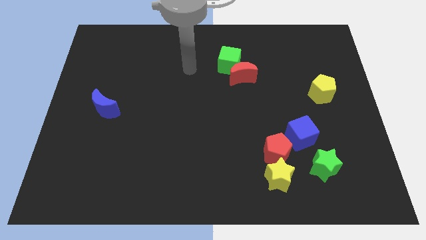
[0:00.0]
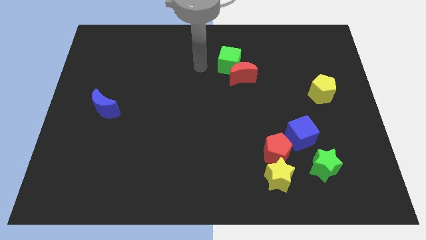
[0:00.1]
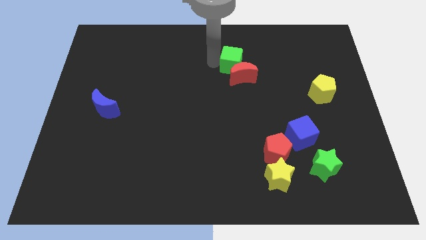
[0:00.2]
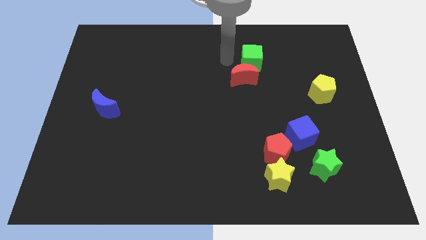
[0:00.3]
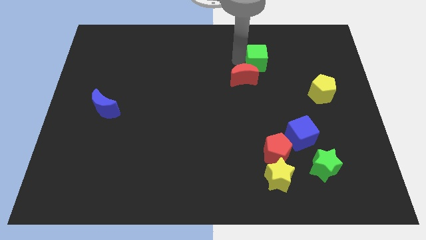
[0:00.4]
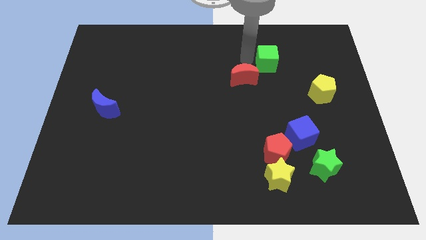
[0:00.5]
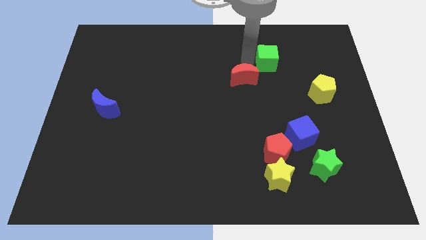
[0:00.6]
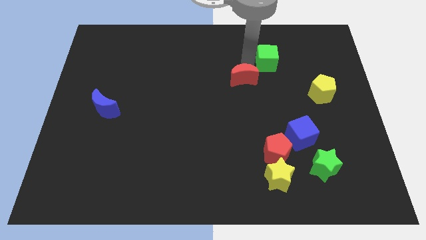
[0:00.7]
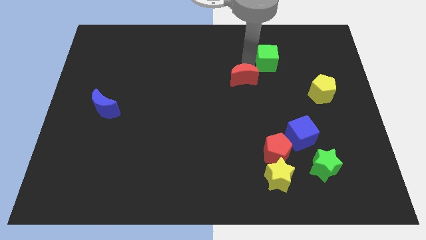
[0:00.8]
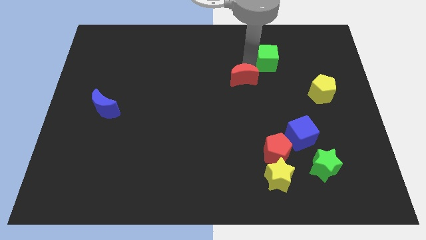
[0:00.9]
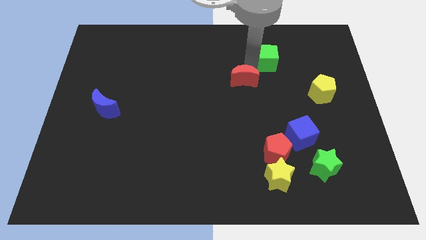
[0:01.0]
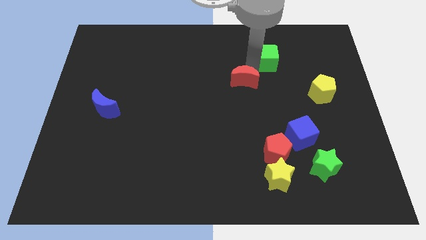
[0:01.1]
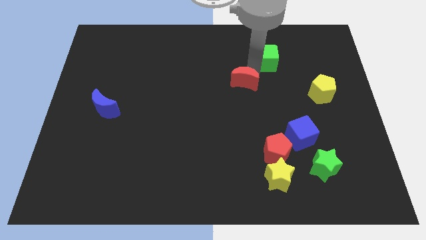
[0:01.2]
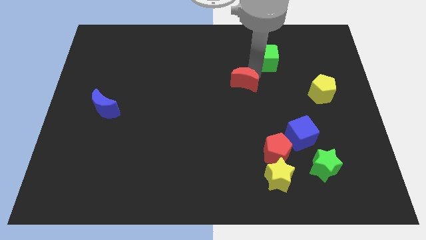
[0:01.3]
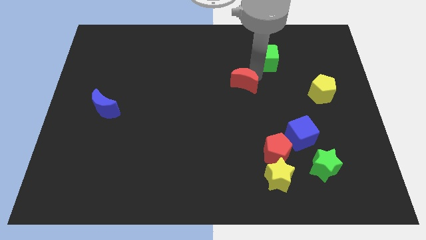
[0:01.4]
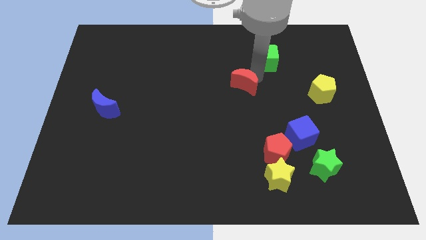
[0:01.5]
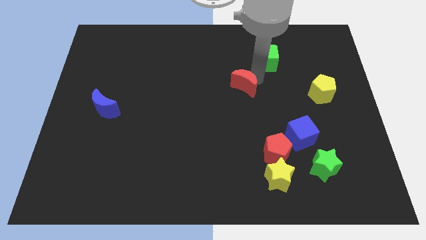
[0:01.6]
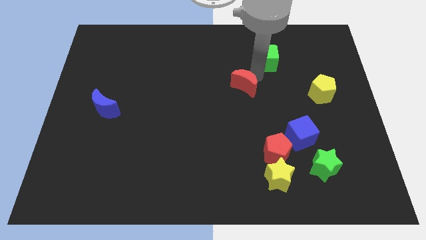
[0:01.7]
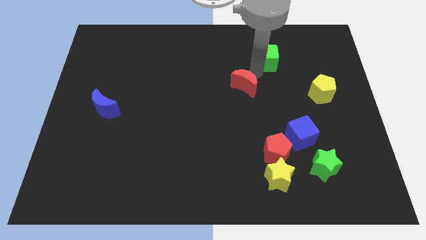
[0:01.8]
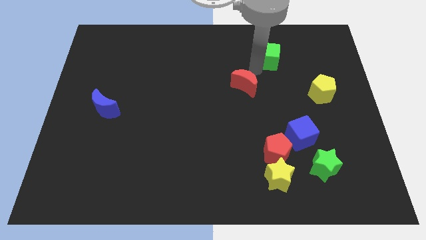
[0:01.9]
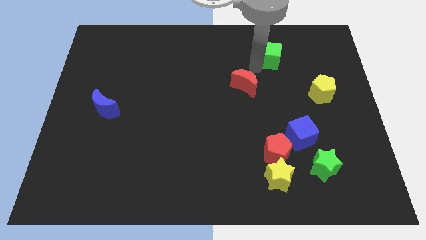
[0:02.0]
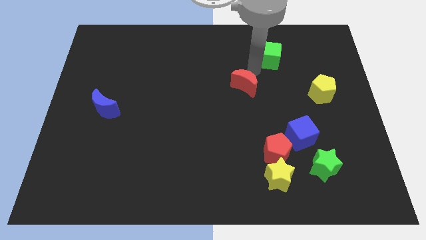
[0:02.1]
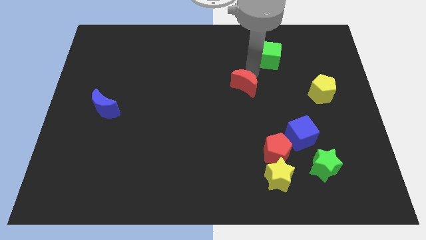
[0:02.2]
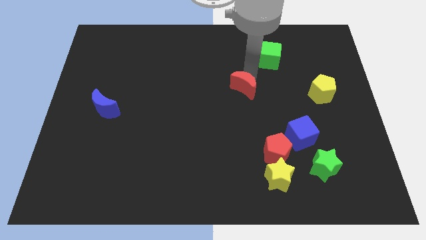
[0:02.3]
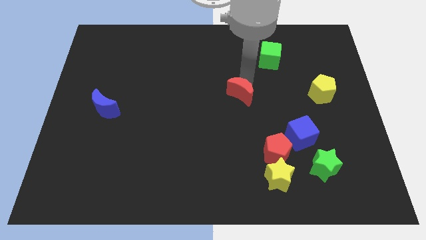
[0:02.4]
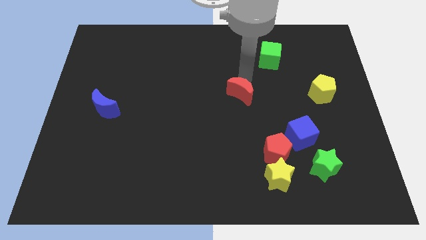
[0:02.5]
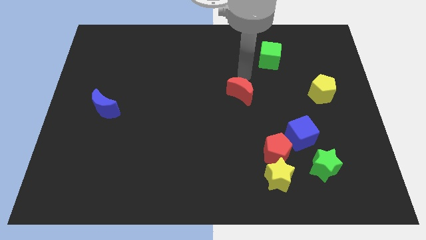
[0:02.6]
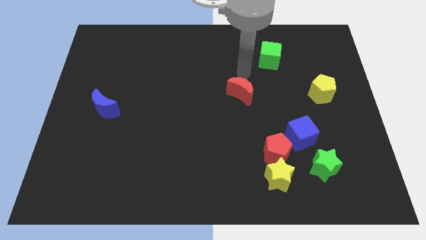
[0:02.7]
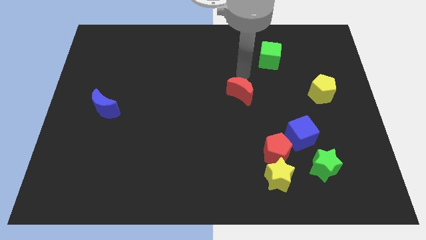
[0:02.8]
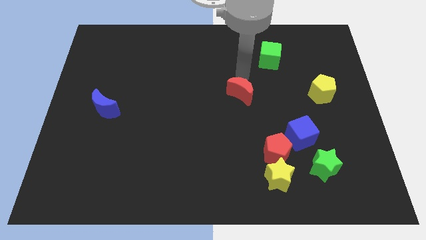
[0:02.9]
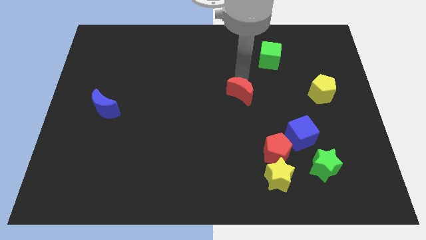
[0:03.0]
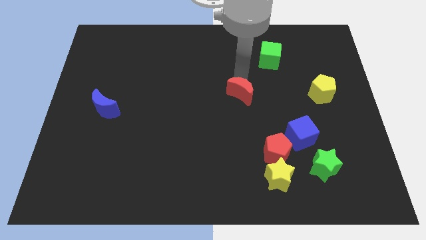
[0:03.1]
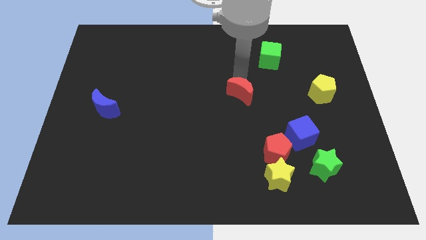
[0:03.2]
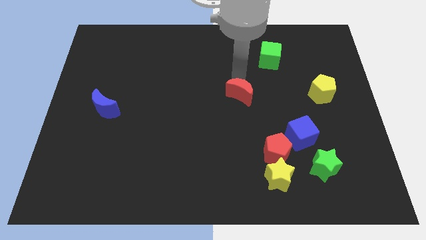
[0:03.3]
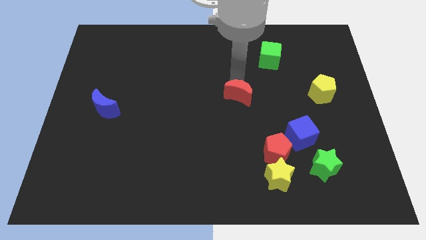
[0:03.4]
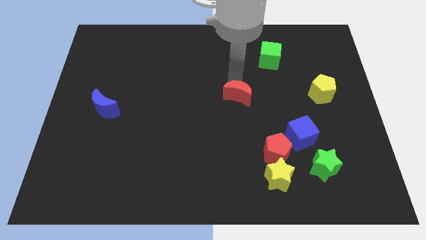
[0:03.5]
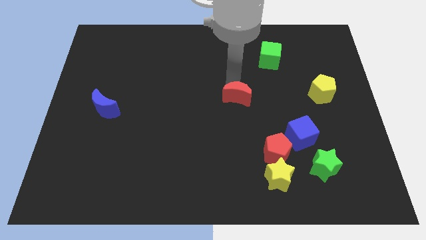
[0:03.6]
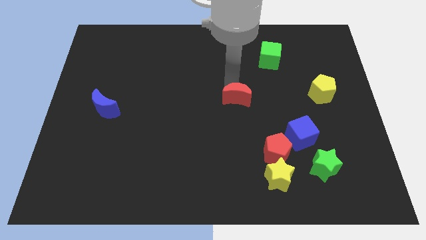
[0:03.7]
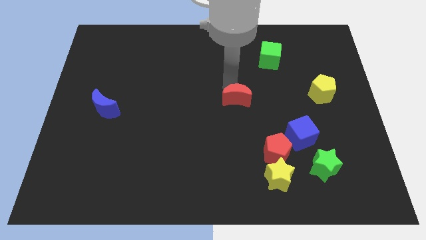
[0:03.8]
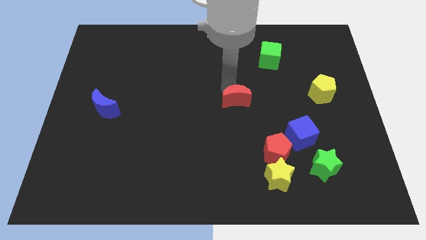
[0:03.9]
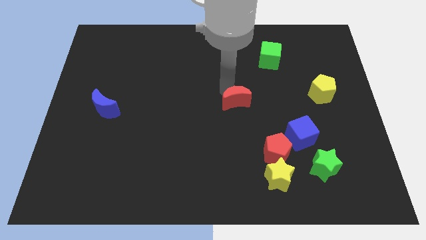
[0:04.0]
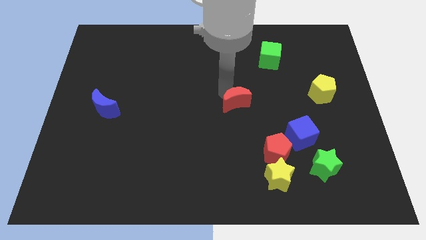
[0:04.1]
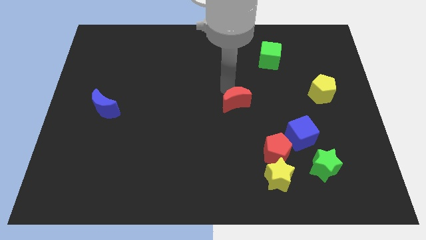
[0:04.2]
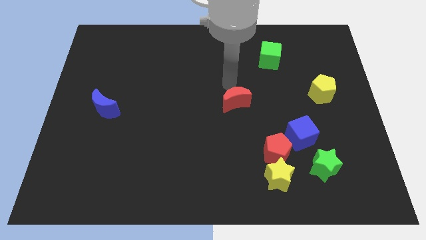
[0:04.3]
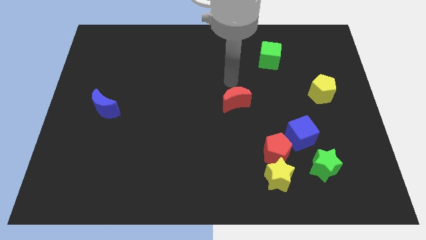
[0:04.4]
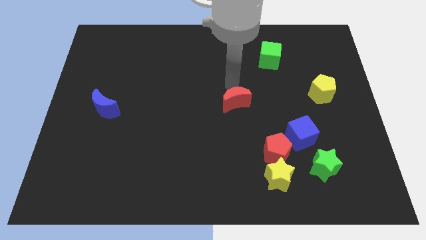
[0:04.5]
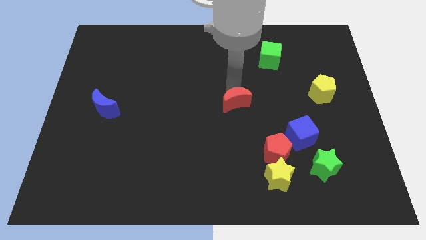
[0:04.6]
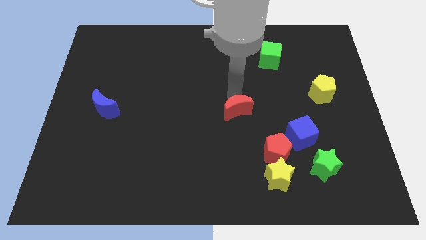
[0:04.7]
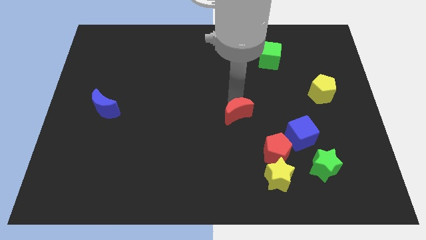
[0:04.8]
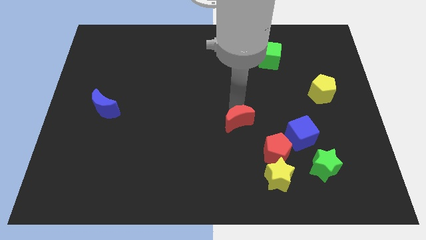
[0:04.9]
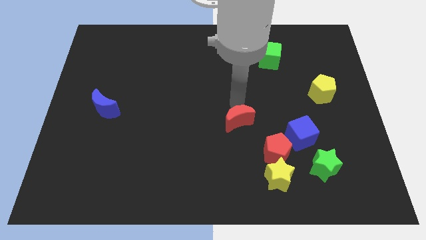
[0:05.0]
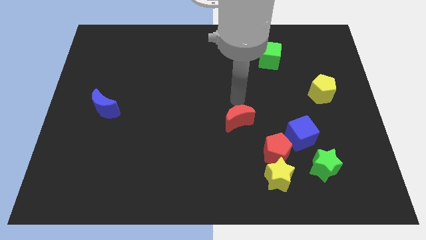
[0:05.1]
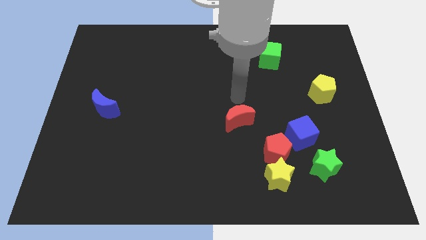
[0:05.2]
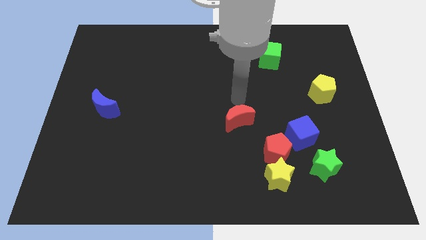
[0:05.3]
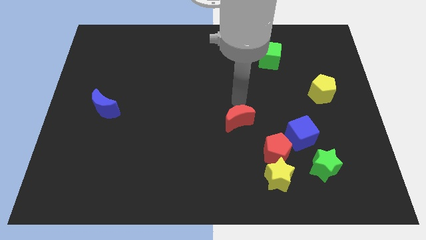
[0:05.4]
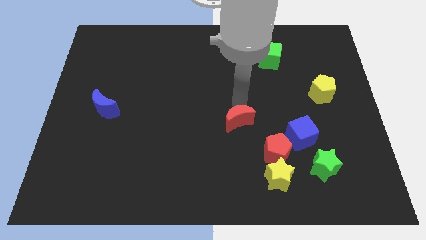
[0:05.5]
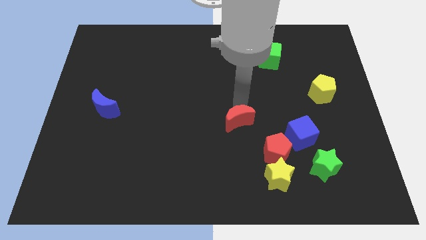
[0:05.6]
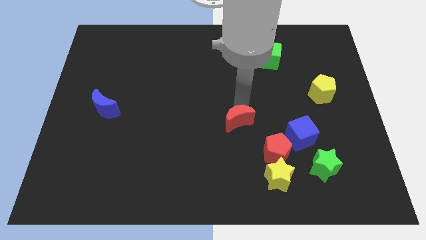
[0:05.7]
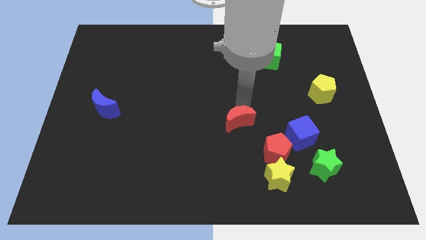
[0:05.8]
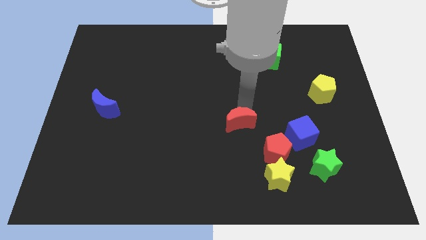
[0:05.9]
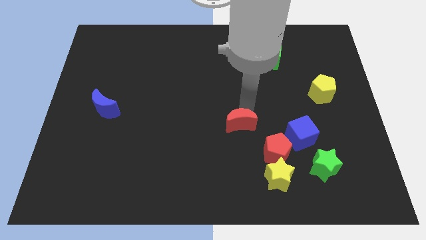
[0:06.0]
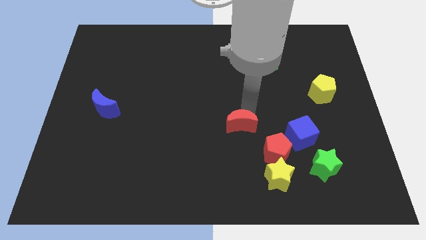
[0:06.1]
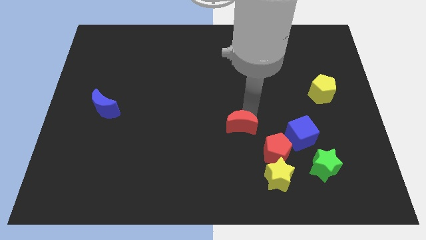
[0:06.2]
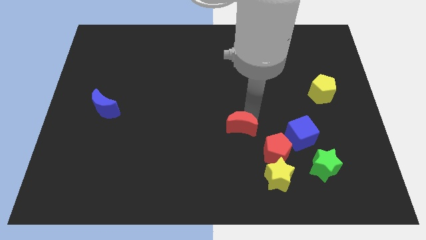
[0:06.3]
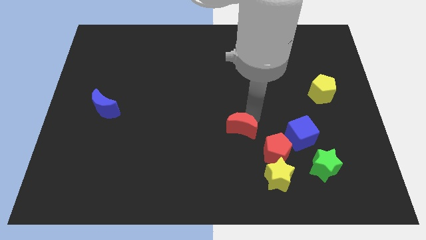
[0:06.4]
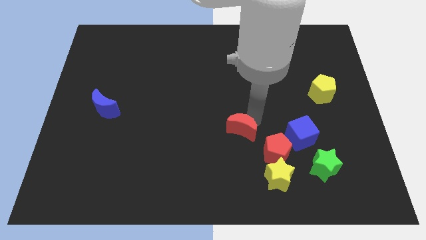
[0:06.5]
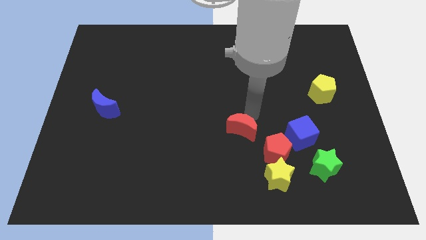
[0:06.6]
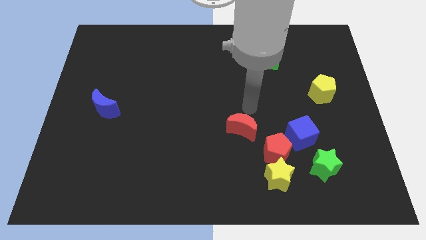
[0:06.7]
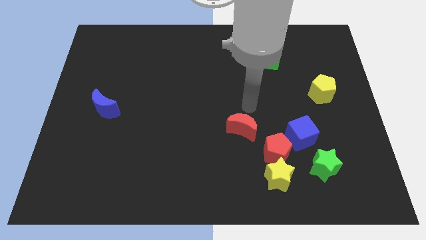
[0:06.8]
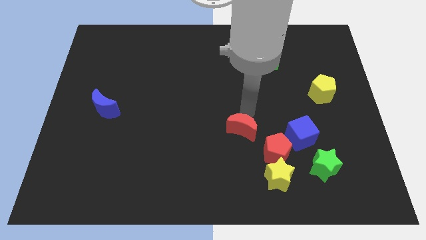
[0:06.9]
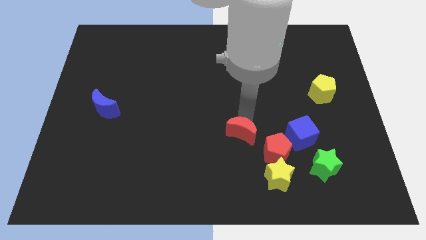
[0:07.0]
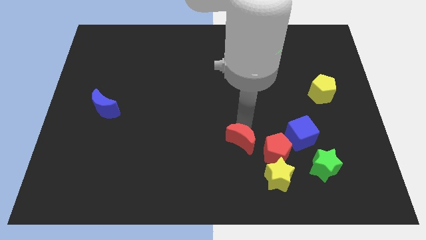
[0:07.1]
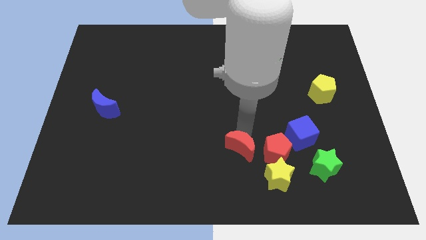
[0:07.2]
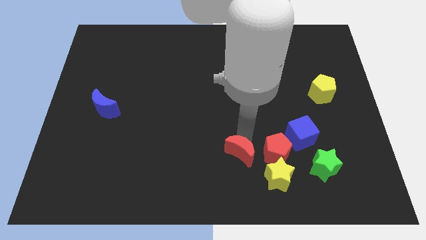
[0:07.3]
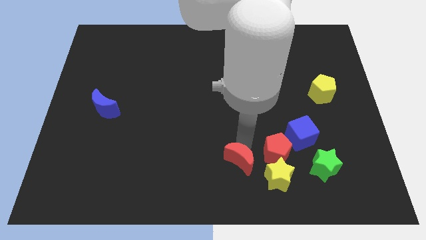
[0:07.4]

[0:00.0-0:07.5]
put the red moon to the left side of the yellow star
